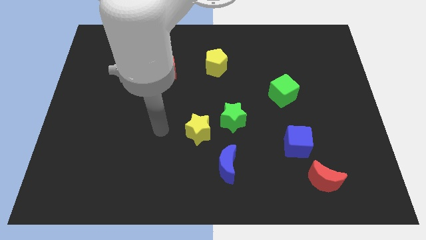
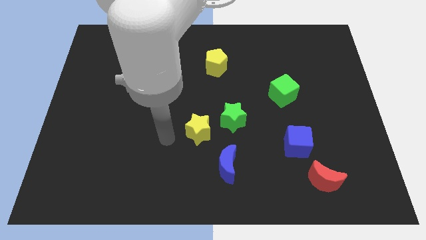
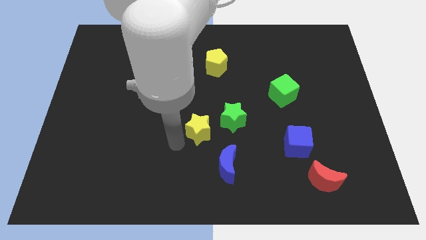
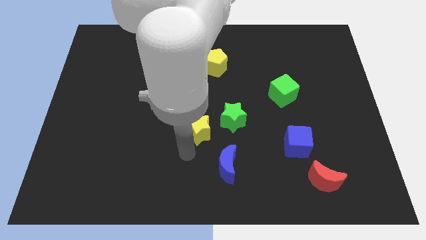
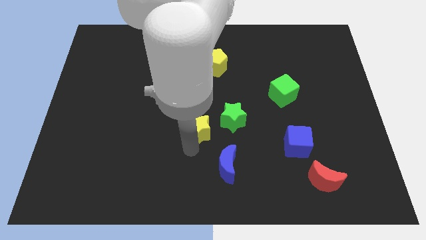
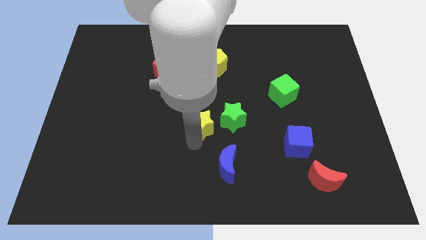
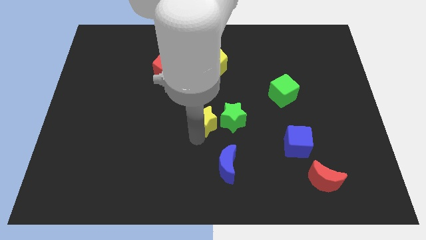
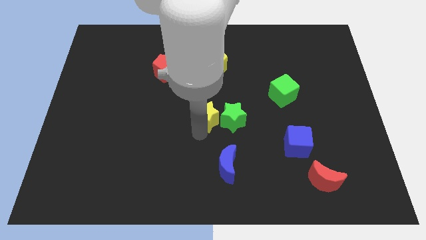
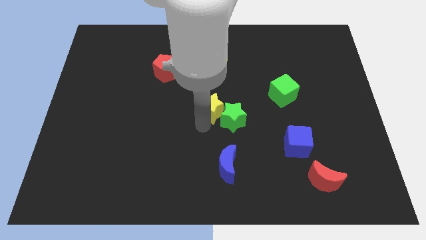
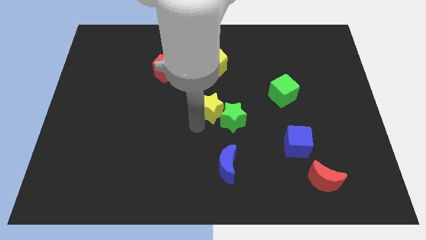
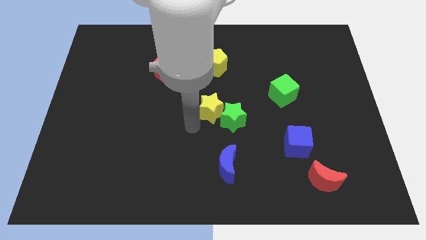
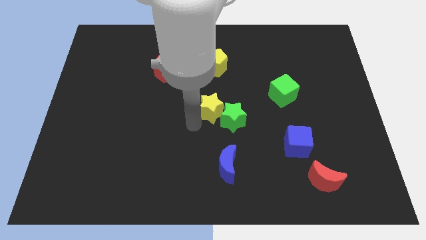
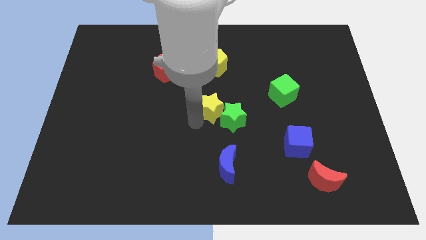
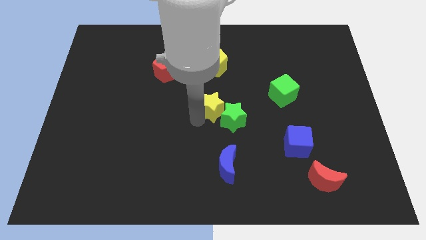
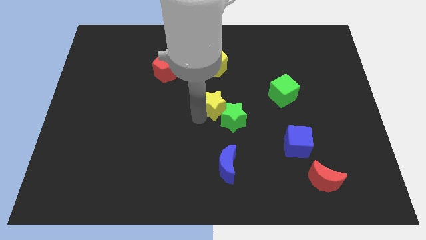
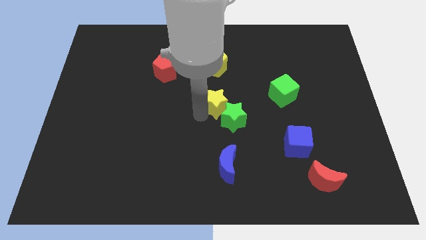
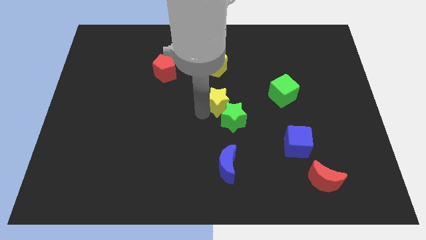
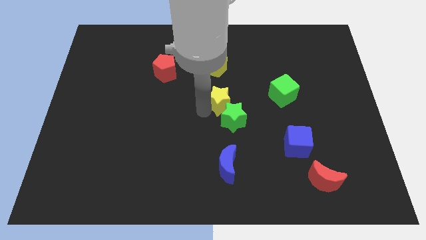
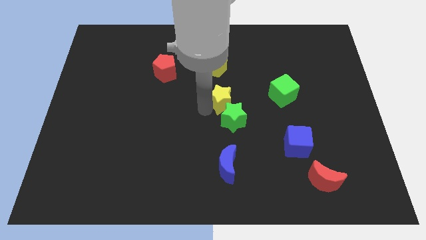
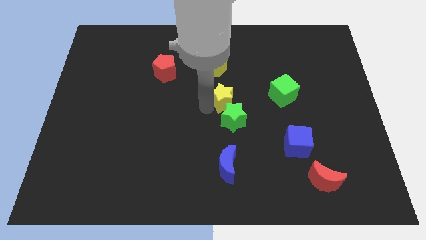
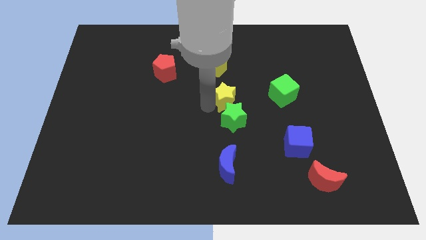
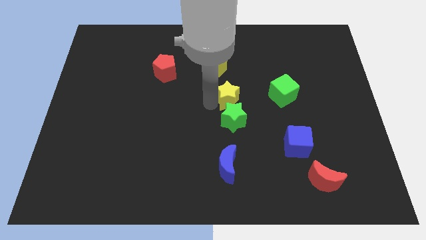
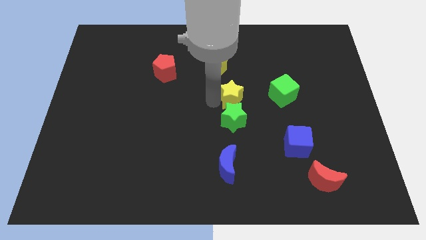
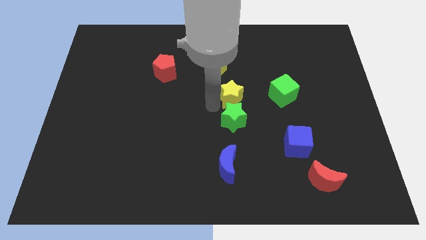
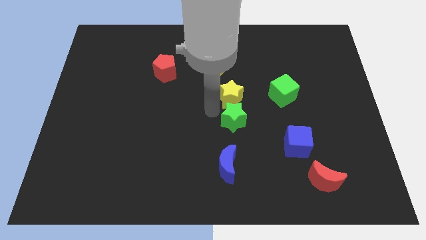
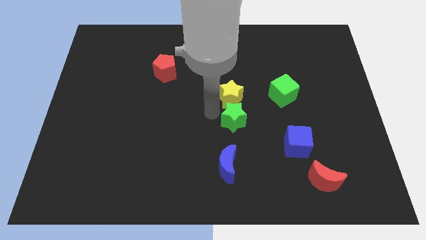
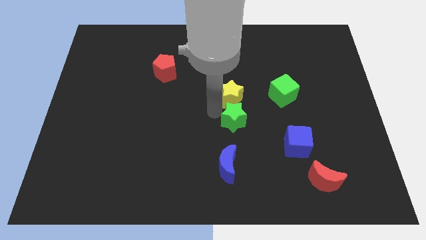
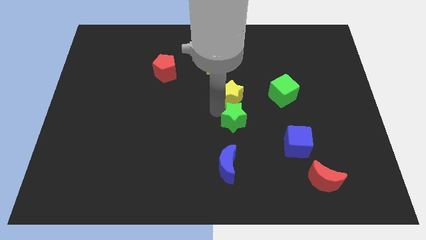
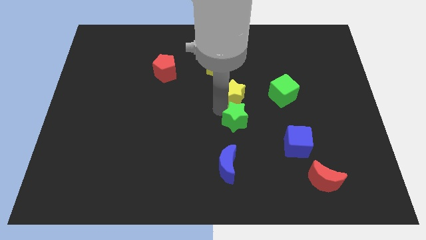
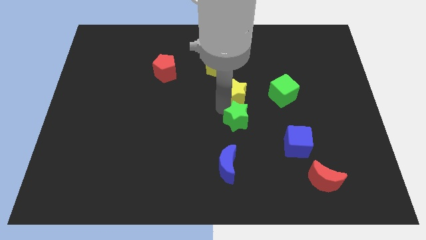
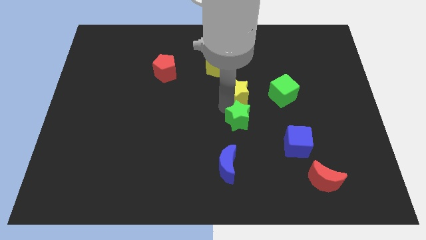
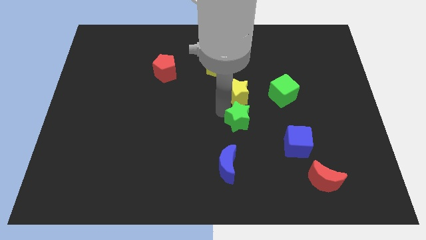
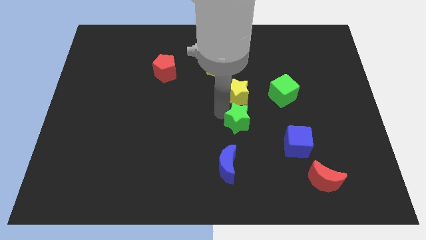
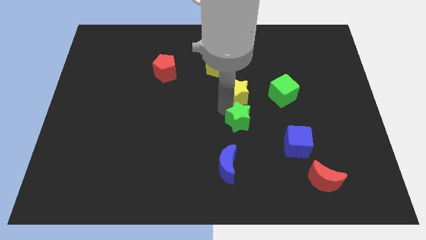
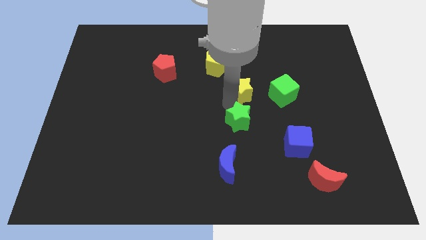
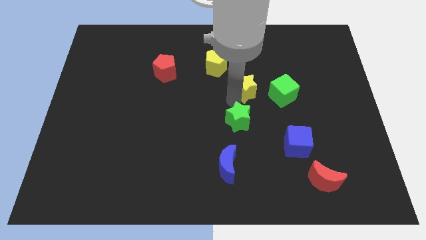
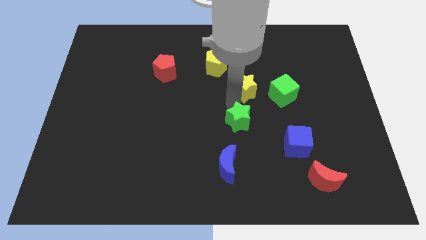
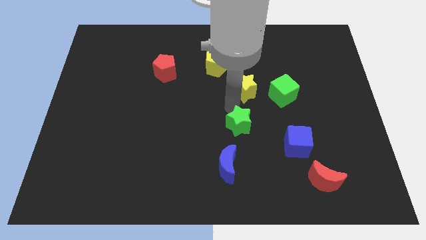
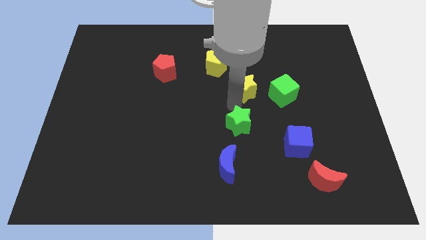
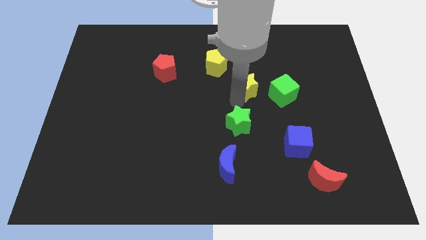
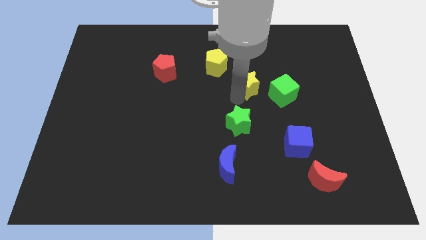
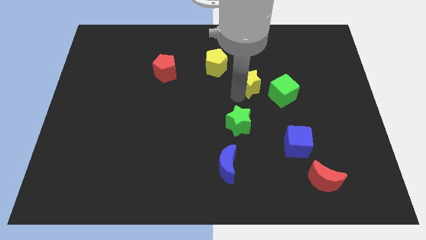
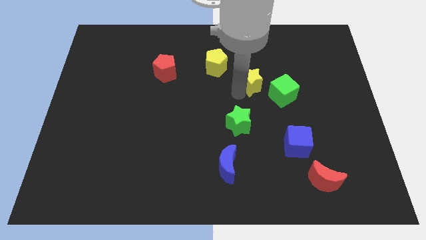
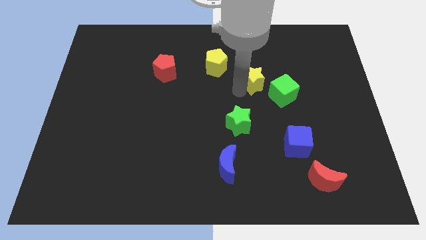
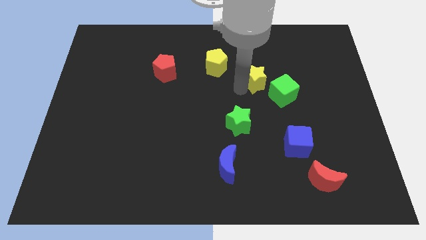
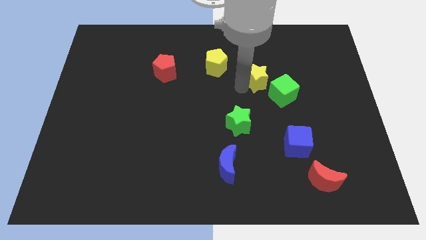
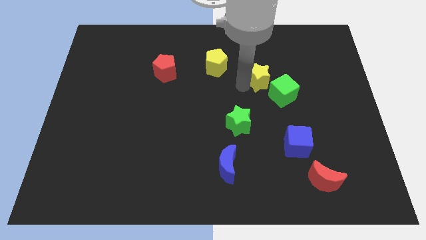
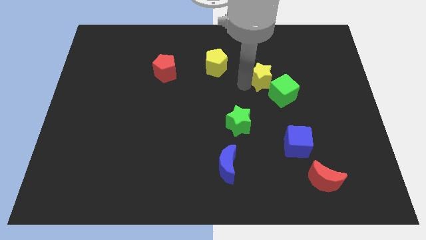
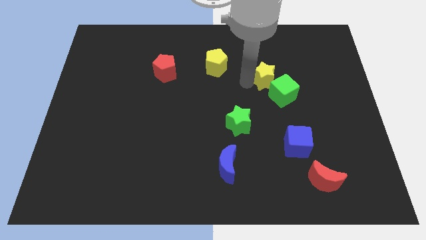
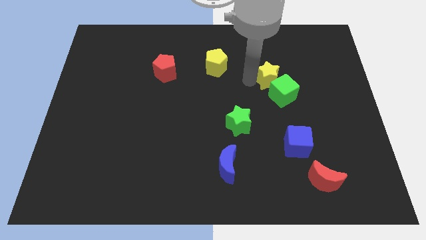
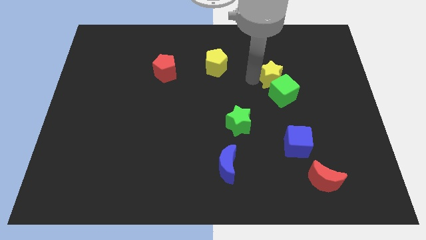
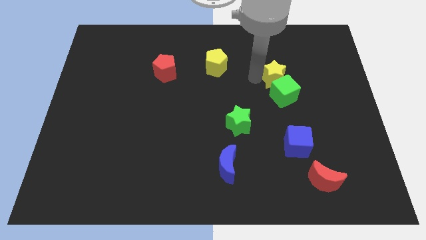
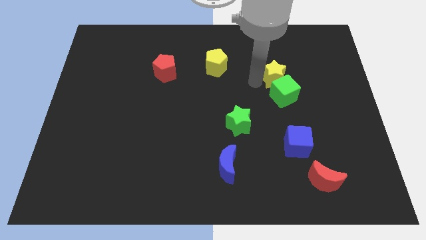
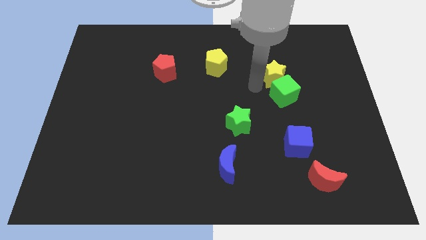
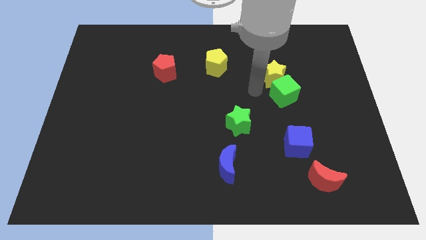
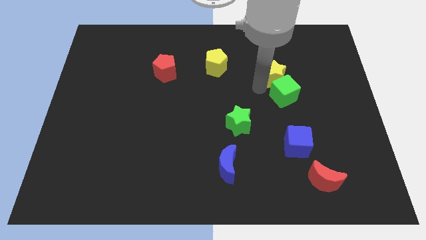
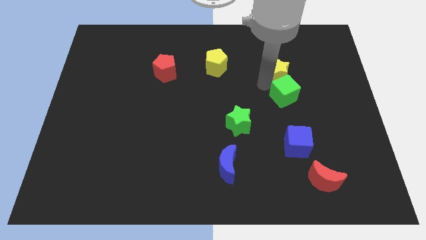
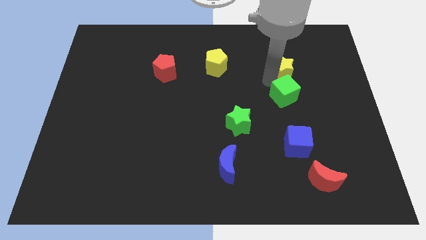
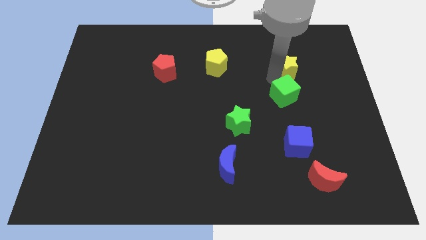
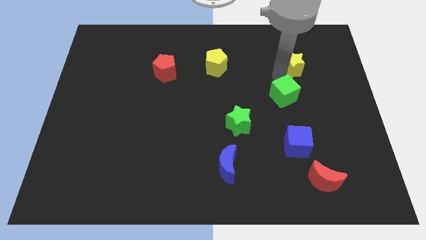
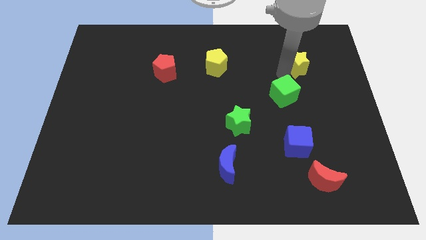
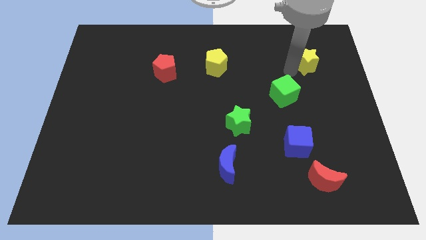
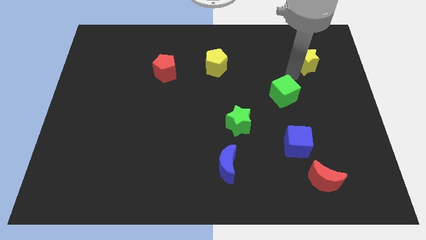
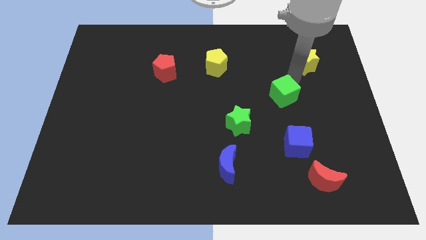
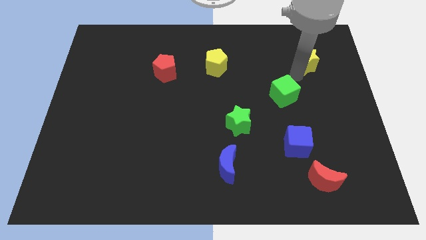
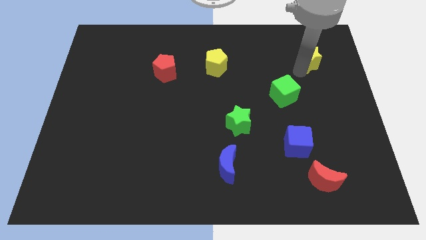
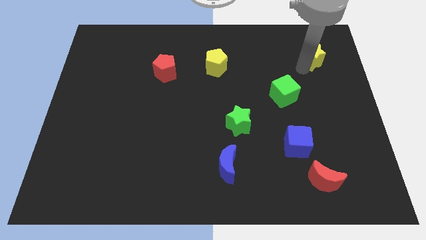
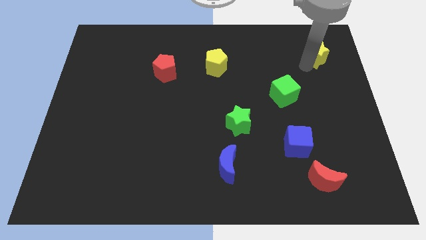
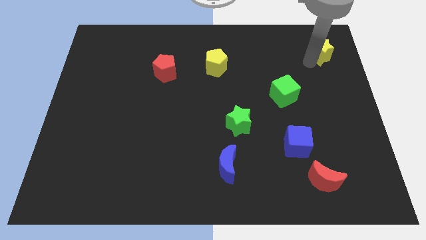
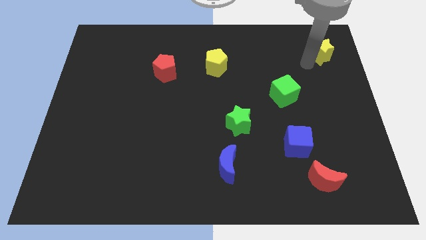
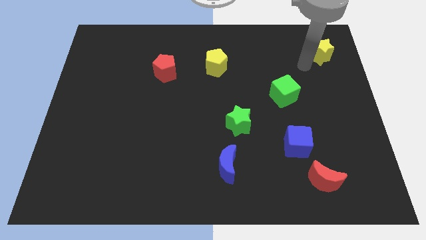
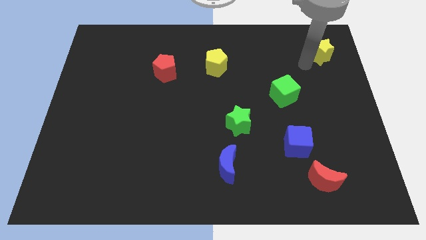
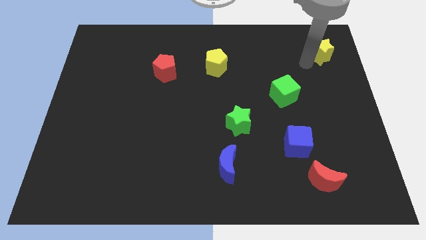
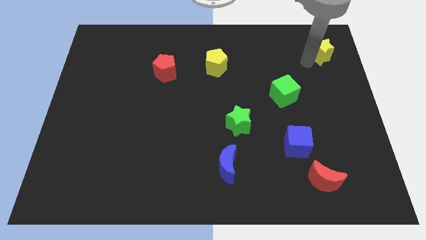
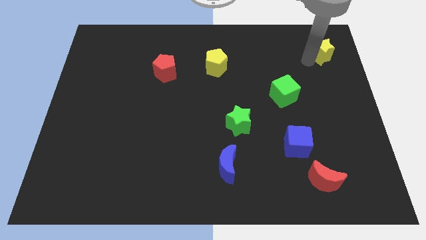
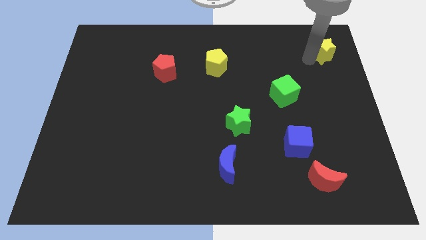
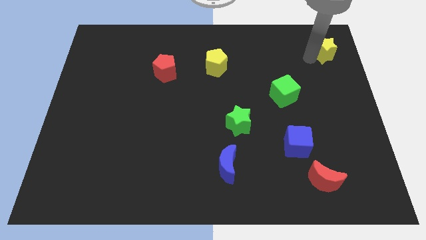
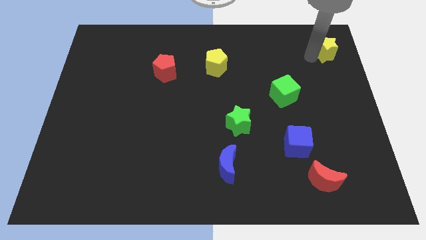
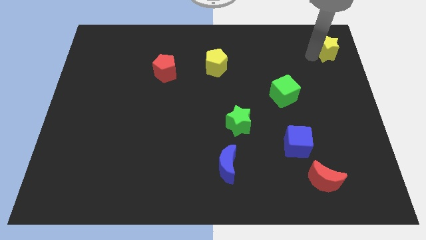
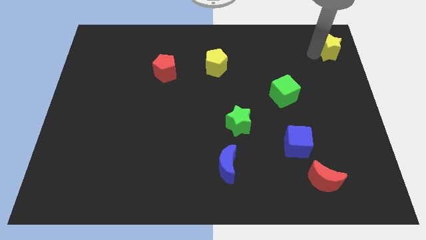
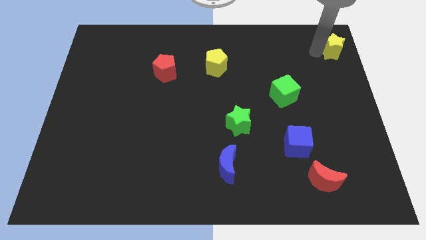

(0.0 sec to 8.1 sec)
push the yellow star to the top right of the board
